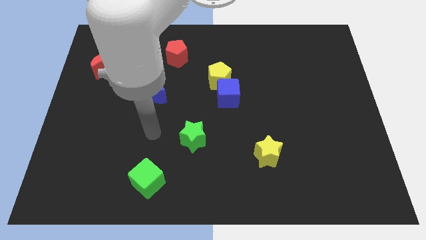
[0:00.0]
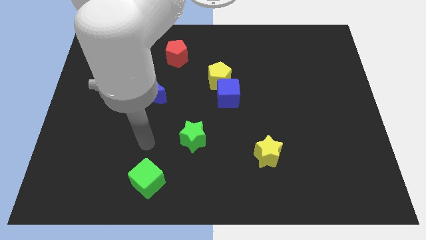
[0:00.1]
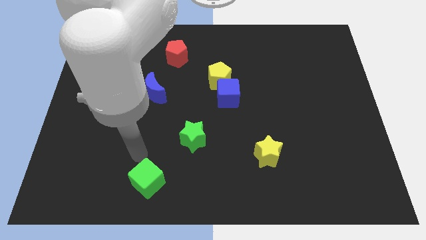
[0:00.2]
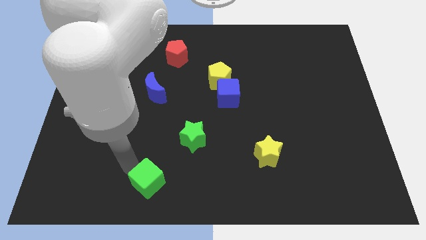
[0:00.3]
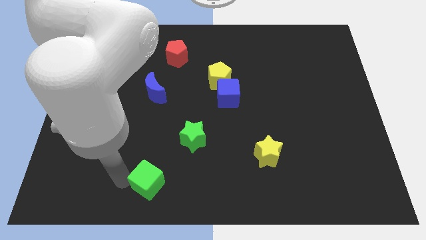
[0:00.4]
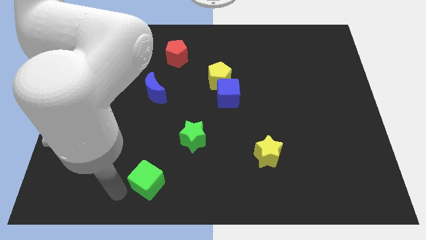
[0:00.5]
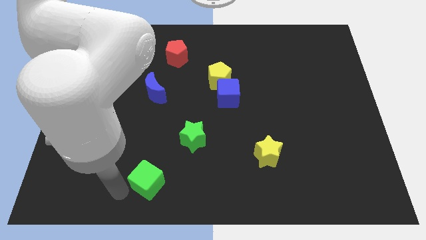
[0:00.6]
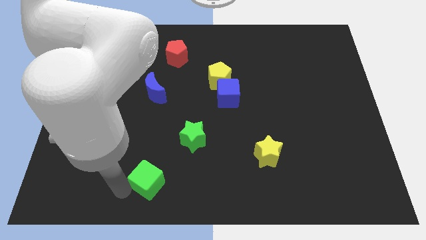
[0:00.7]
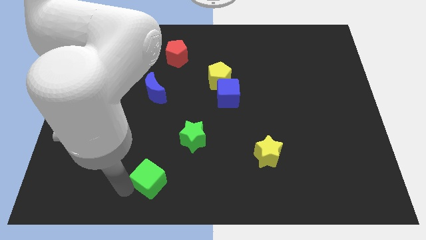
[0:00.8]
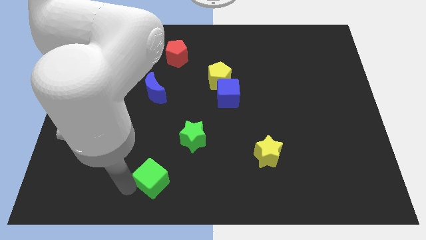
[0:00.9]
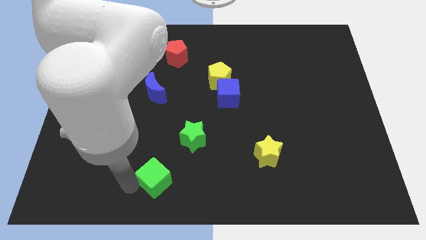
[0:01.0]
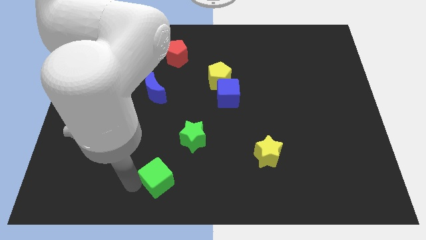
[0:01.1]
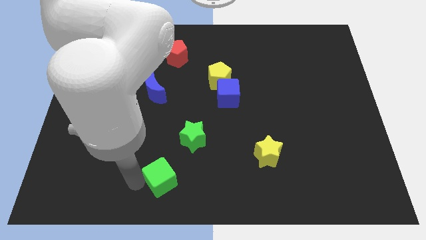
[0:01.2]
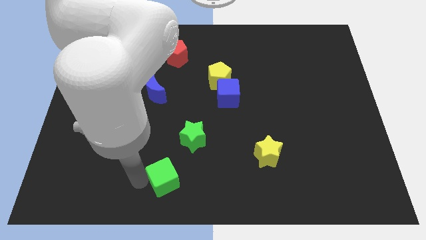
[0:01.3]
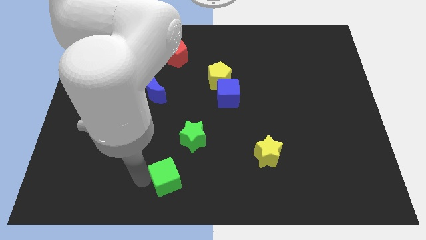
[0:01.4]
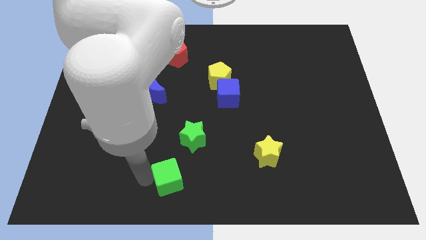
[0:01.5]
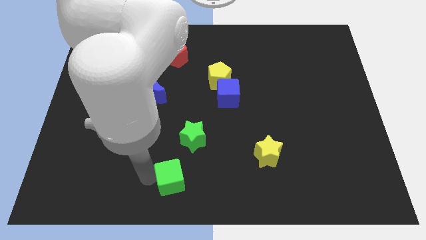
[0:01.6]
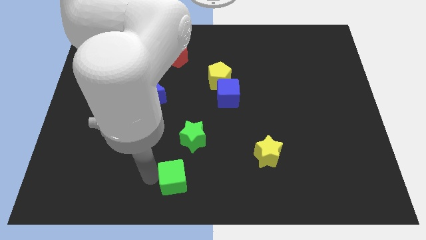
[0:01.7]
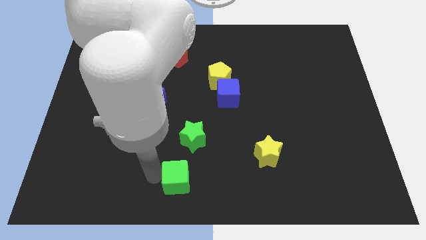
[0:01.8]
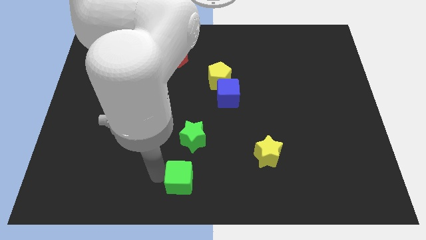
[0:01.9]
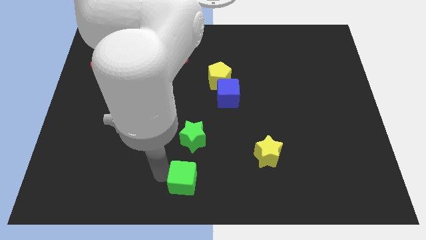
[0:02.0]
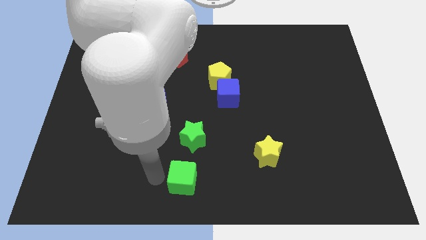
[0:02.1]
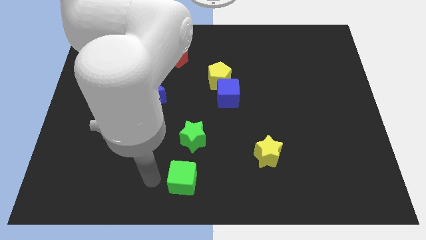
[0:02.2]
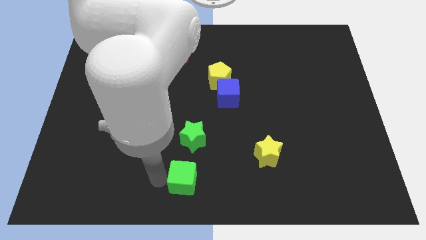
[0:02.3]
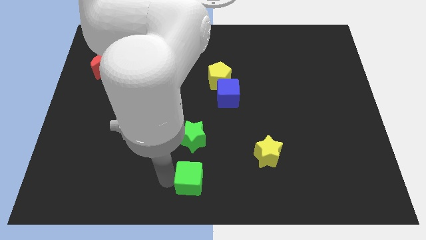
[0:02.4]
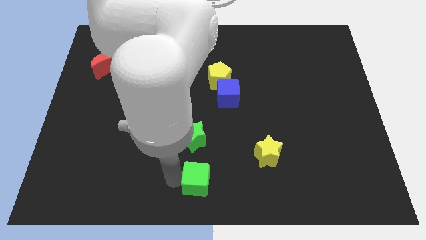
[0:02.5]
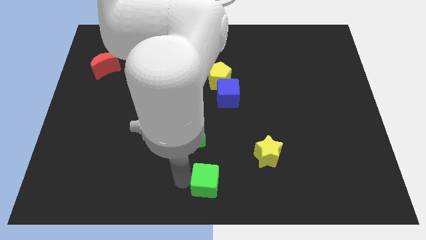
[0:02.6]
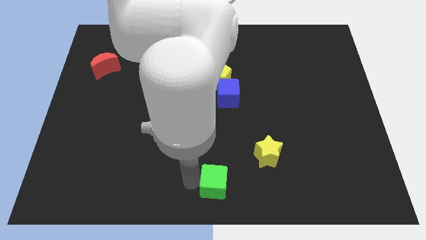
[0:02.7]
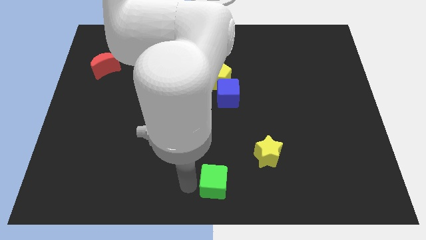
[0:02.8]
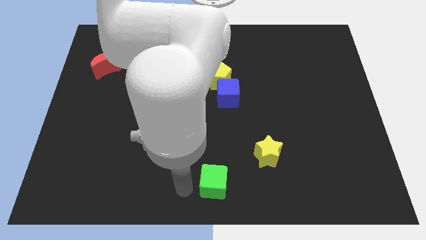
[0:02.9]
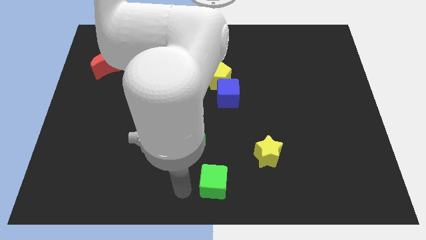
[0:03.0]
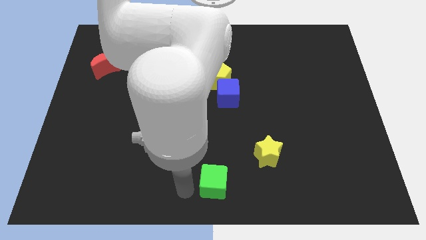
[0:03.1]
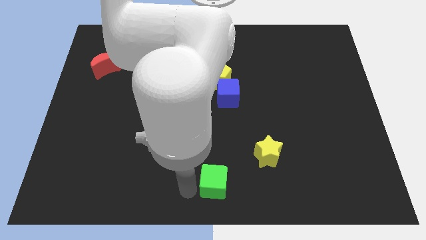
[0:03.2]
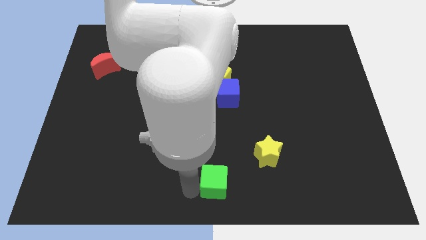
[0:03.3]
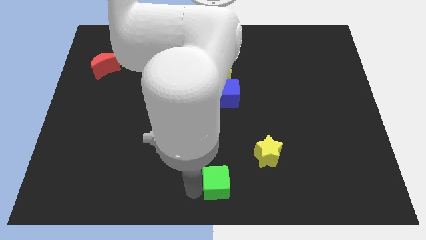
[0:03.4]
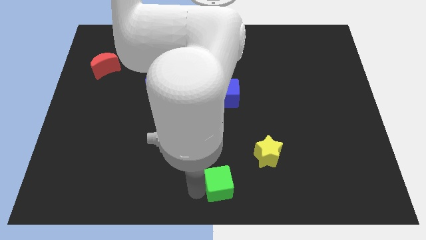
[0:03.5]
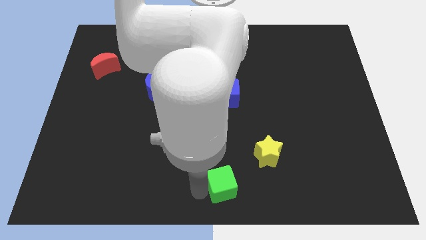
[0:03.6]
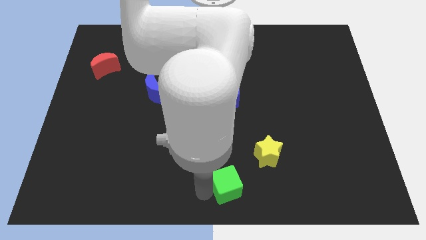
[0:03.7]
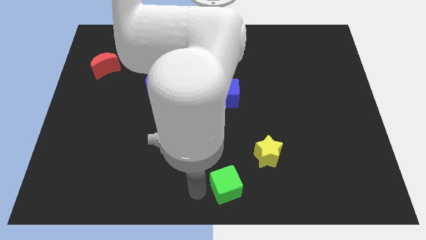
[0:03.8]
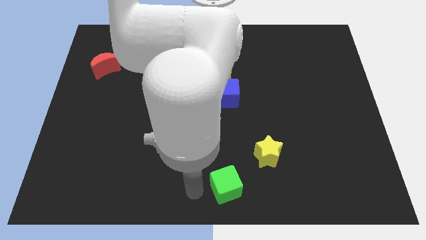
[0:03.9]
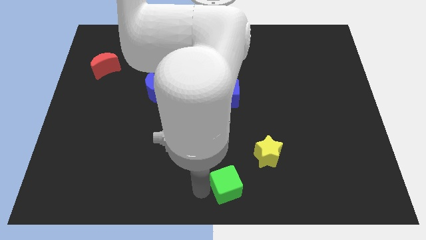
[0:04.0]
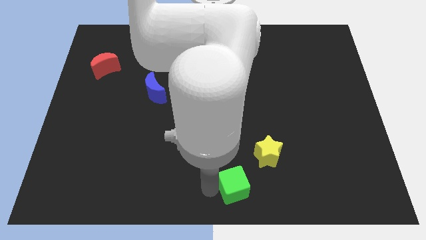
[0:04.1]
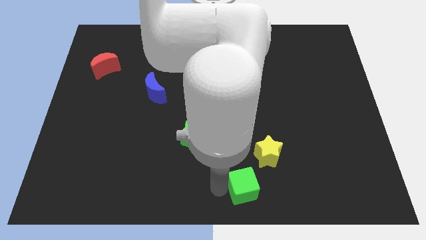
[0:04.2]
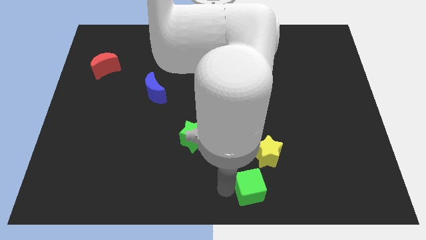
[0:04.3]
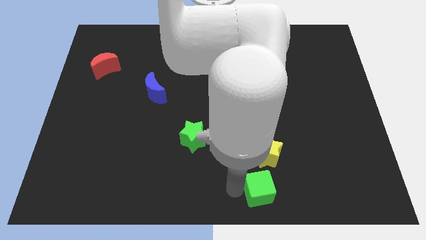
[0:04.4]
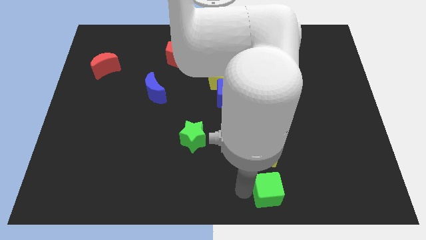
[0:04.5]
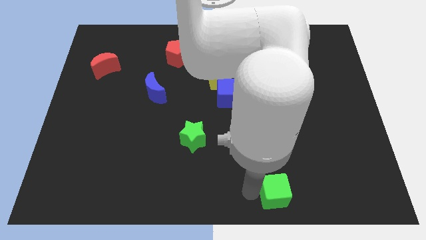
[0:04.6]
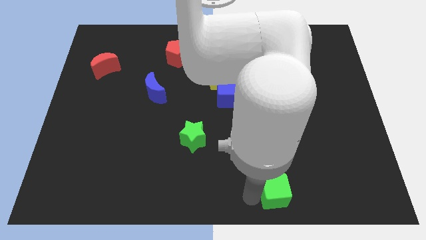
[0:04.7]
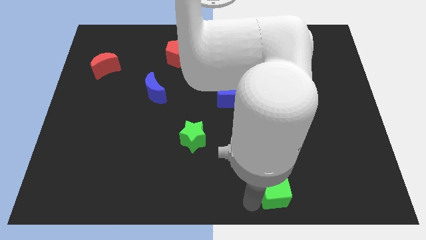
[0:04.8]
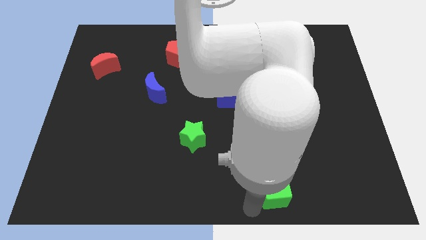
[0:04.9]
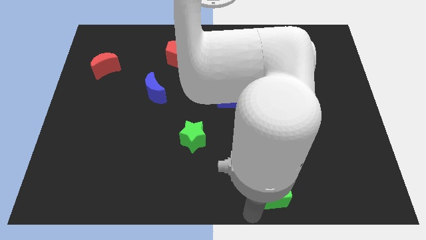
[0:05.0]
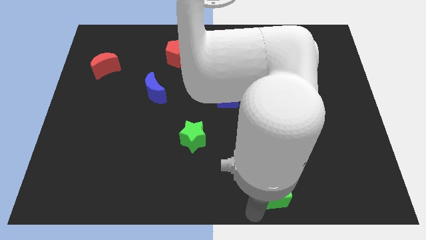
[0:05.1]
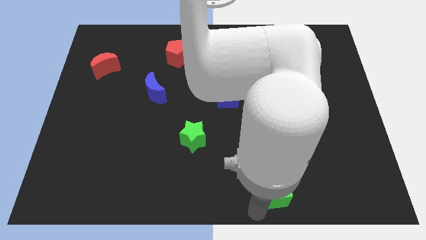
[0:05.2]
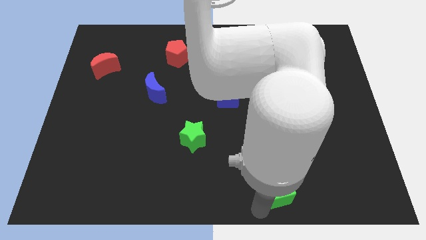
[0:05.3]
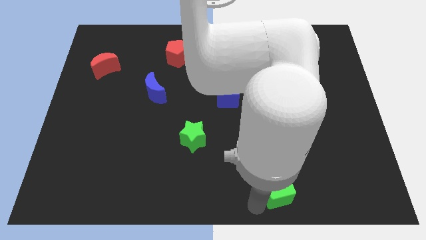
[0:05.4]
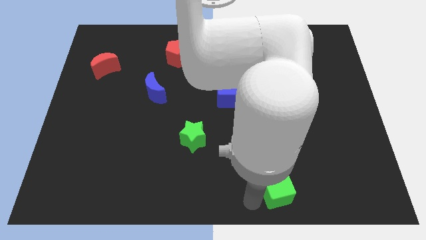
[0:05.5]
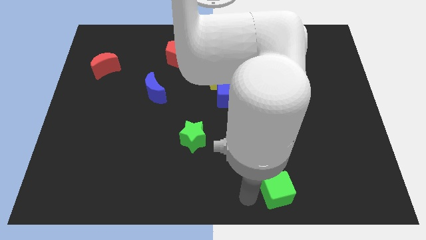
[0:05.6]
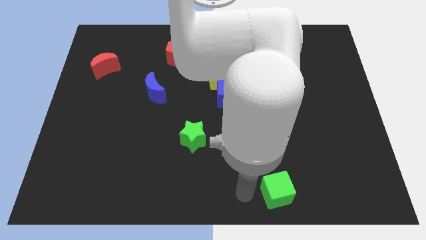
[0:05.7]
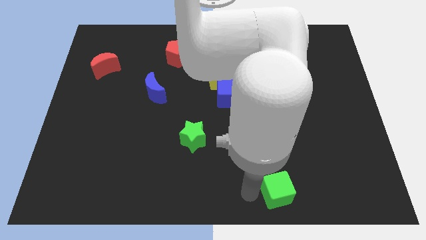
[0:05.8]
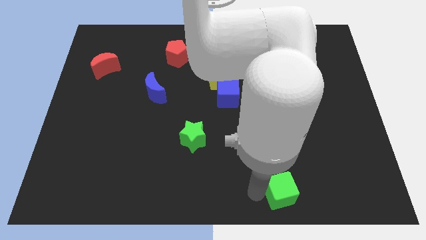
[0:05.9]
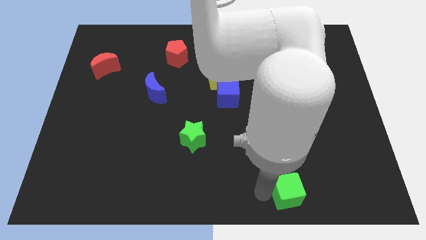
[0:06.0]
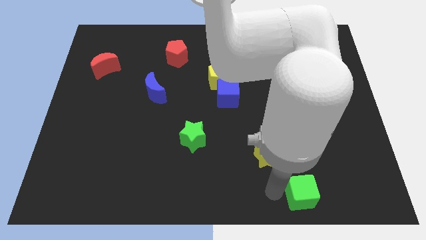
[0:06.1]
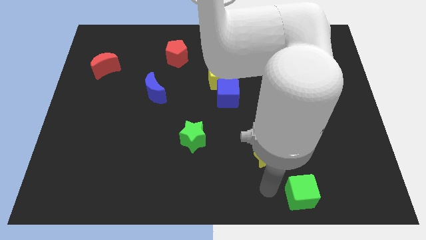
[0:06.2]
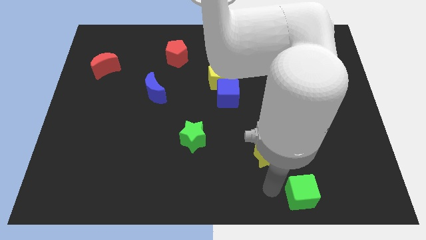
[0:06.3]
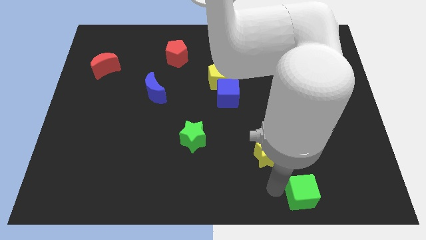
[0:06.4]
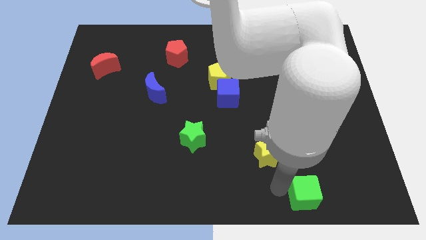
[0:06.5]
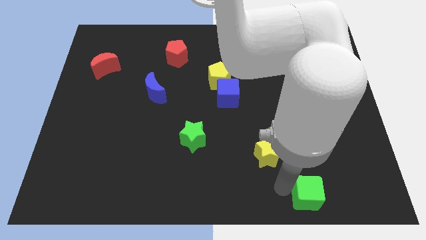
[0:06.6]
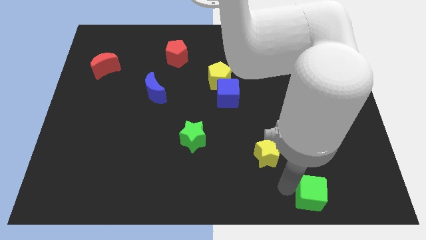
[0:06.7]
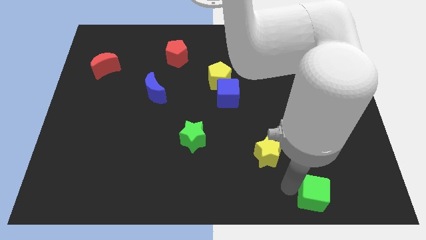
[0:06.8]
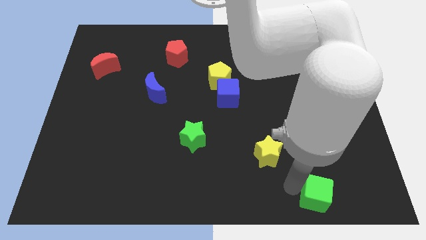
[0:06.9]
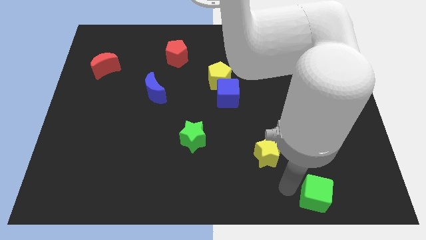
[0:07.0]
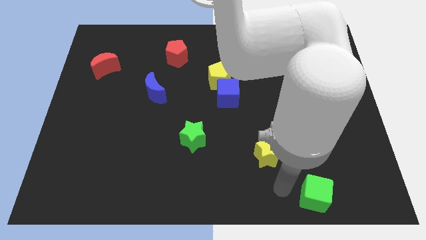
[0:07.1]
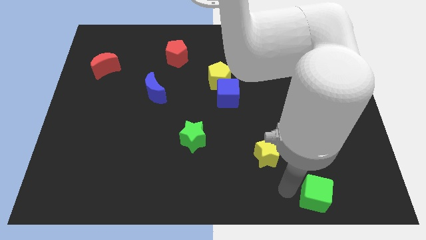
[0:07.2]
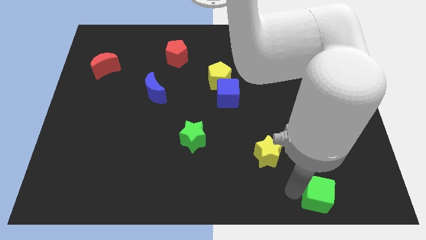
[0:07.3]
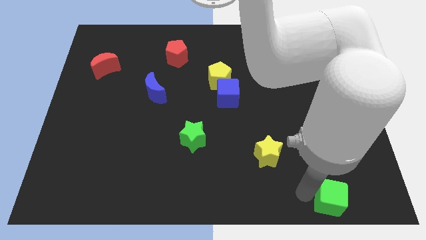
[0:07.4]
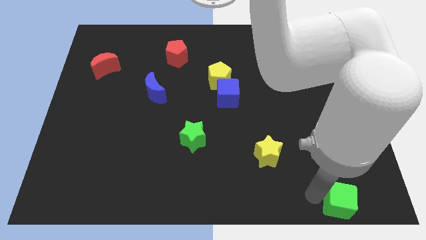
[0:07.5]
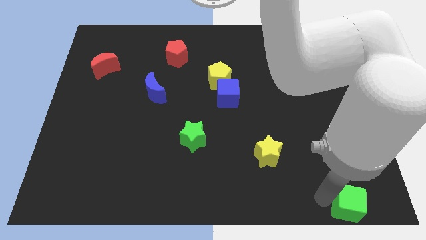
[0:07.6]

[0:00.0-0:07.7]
put the green cube to the bottom right
